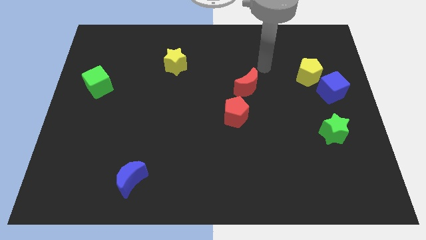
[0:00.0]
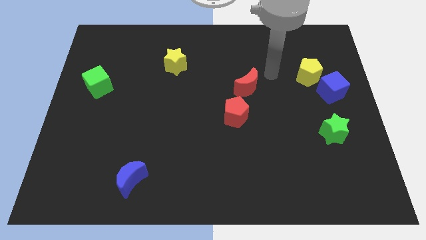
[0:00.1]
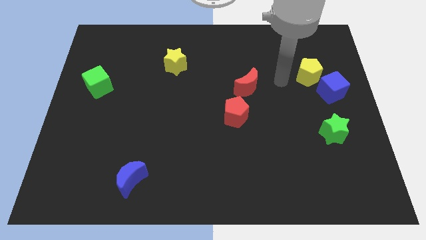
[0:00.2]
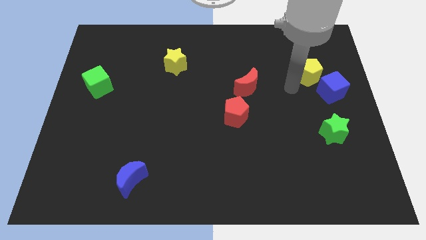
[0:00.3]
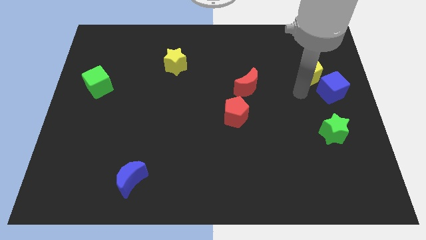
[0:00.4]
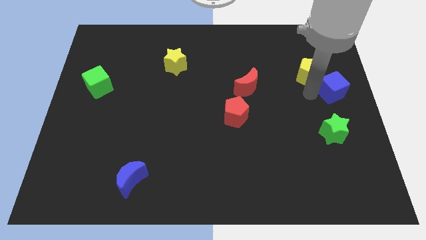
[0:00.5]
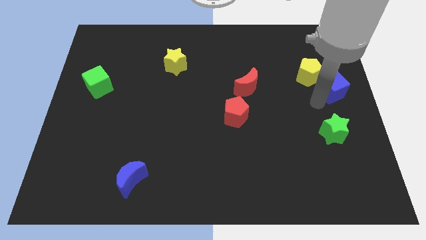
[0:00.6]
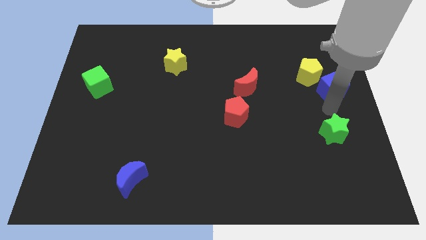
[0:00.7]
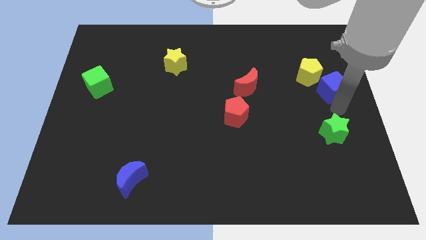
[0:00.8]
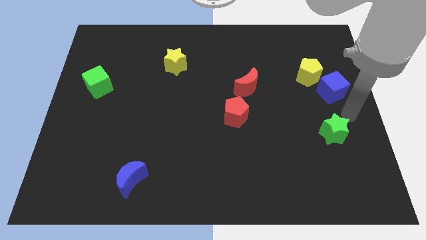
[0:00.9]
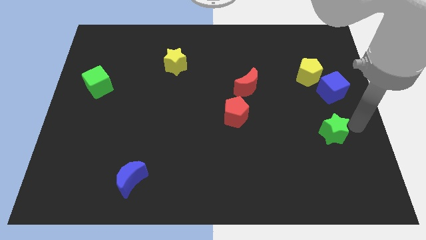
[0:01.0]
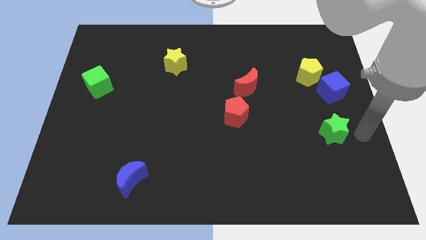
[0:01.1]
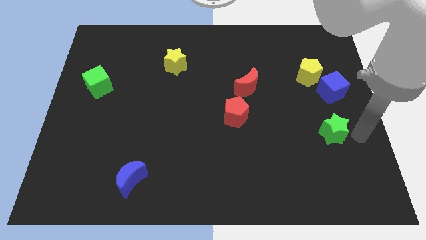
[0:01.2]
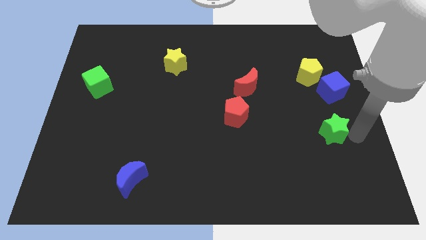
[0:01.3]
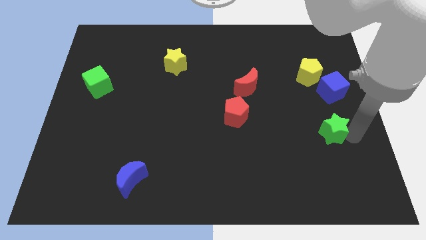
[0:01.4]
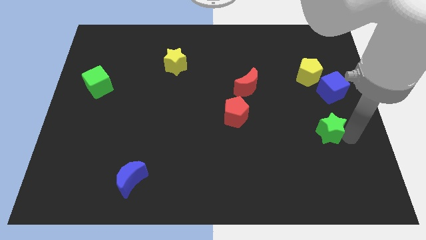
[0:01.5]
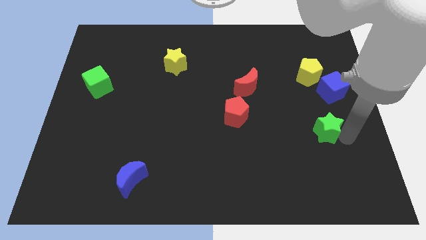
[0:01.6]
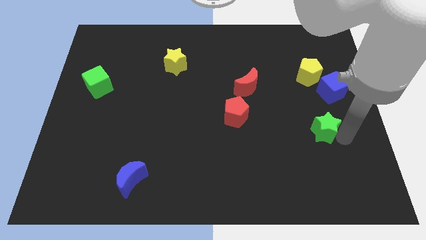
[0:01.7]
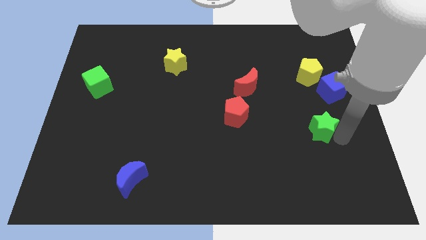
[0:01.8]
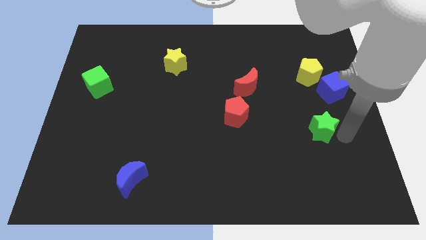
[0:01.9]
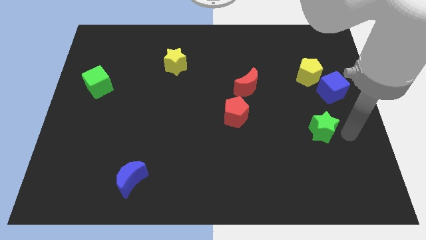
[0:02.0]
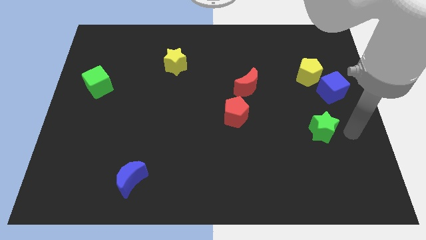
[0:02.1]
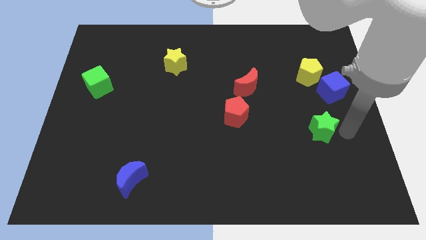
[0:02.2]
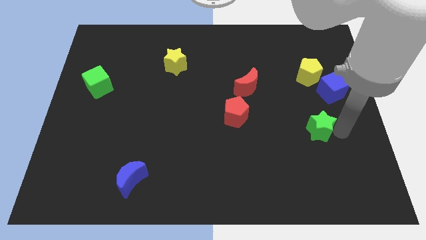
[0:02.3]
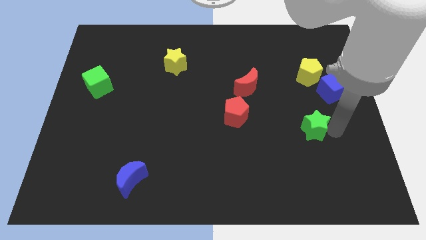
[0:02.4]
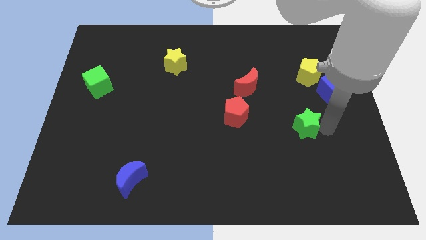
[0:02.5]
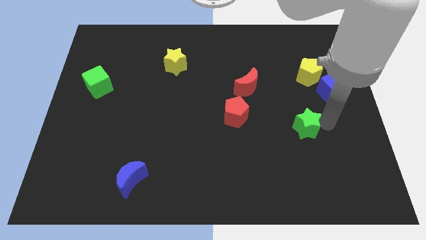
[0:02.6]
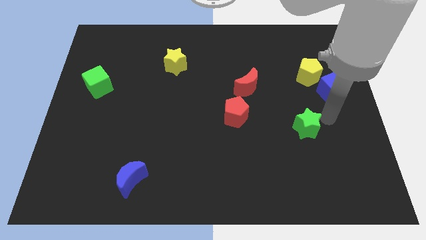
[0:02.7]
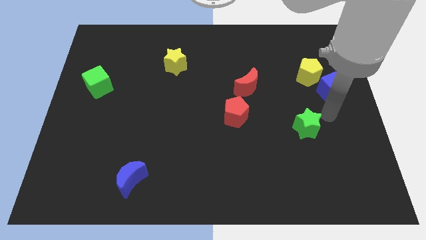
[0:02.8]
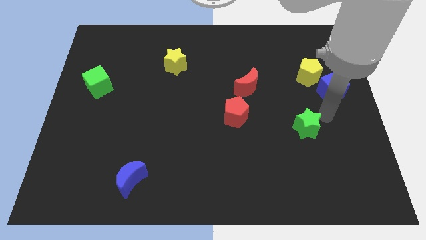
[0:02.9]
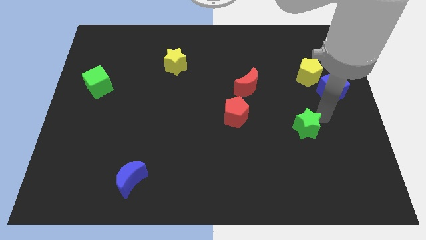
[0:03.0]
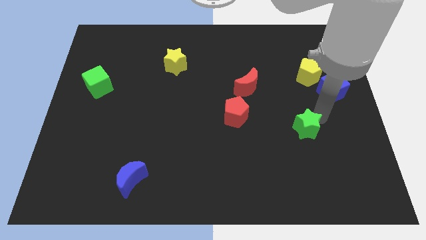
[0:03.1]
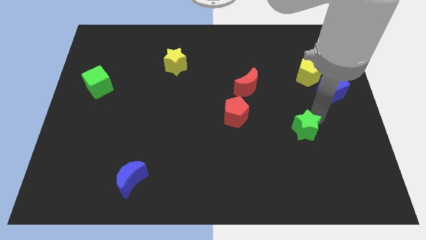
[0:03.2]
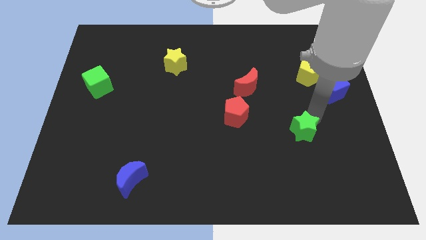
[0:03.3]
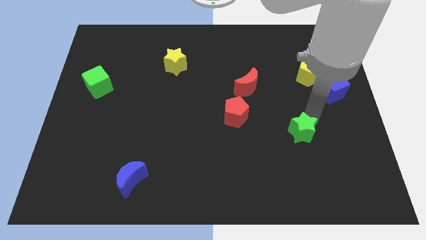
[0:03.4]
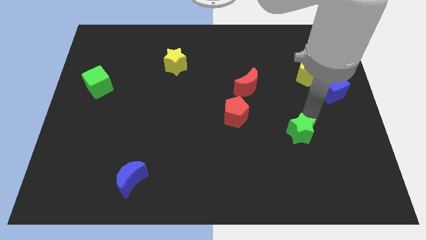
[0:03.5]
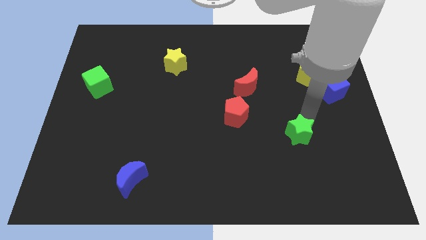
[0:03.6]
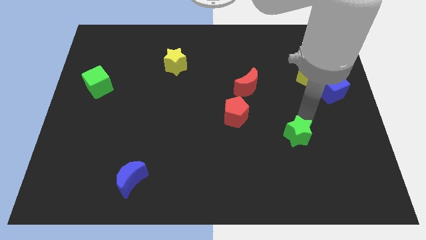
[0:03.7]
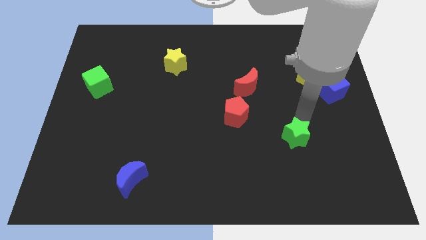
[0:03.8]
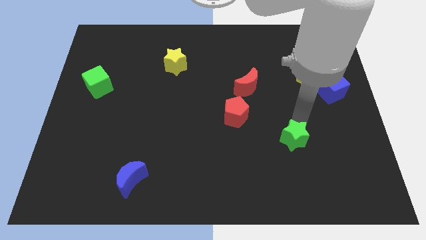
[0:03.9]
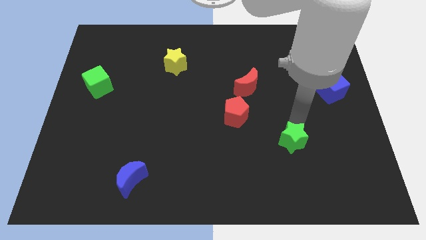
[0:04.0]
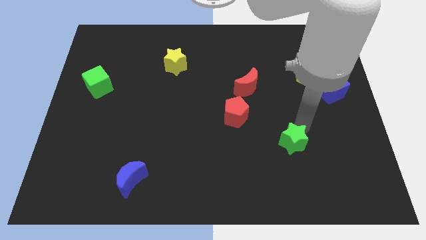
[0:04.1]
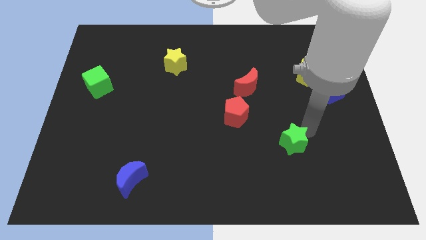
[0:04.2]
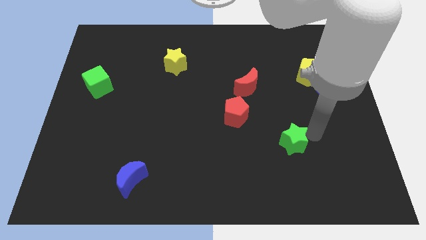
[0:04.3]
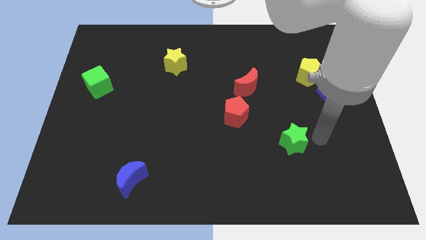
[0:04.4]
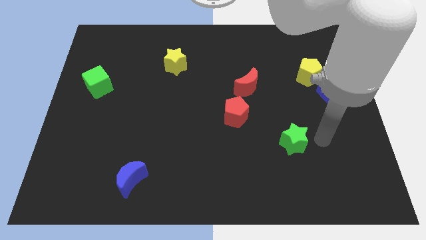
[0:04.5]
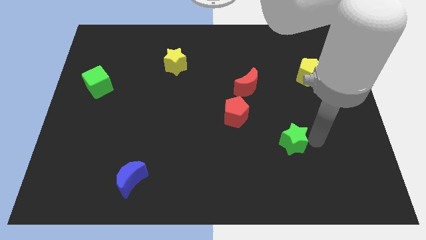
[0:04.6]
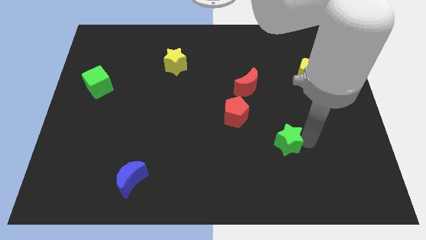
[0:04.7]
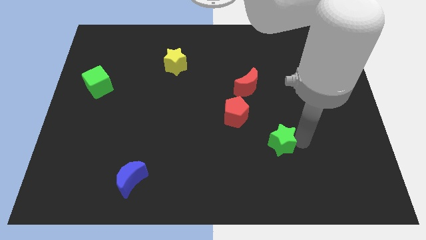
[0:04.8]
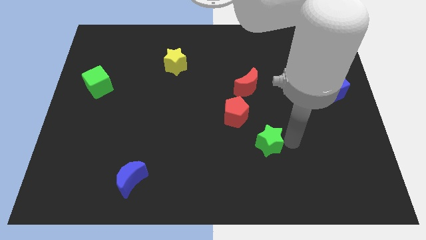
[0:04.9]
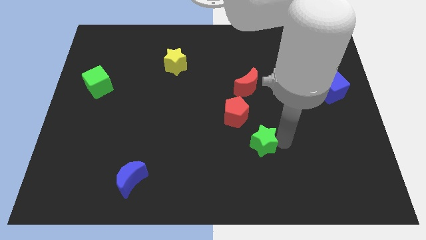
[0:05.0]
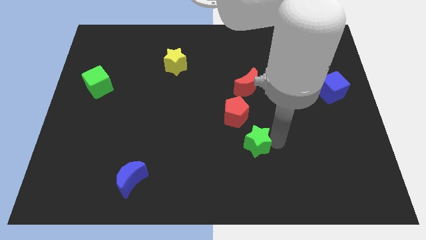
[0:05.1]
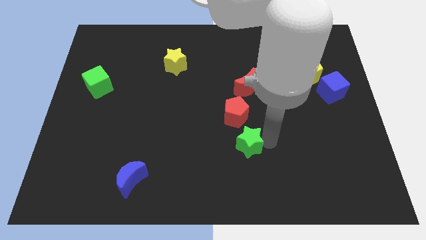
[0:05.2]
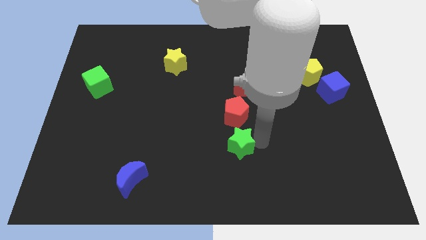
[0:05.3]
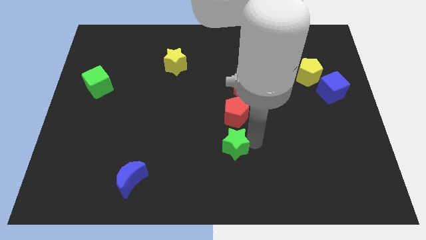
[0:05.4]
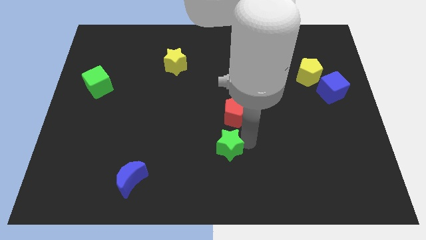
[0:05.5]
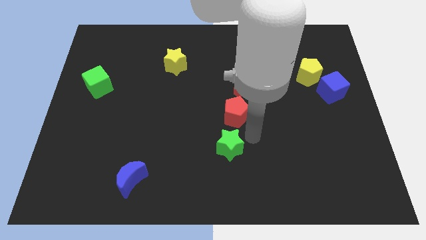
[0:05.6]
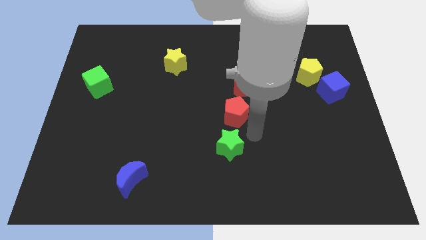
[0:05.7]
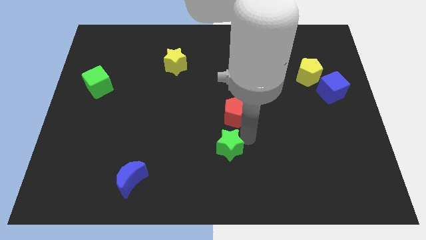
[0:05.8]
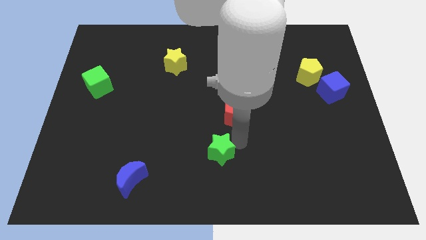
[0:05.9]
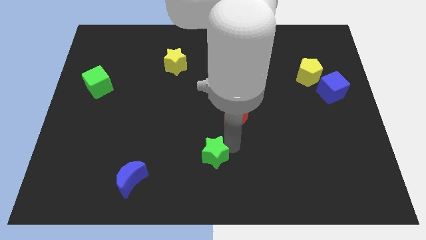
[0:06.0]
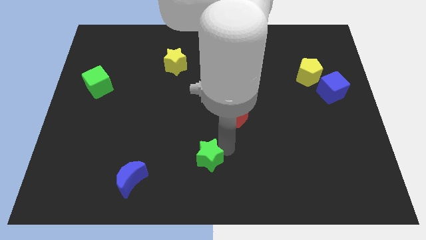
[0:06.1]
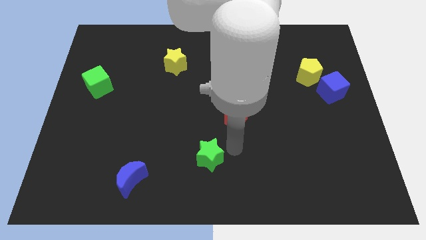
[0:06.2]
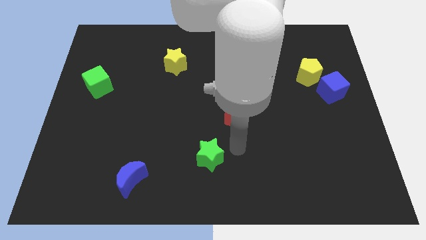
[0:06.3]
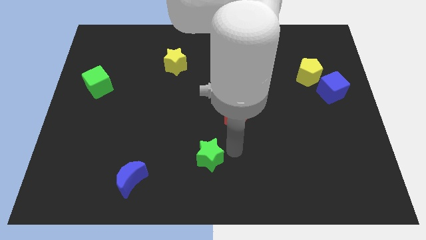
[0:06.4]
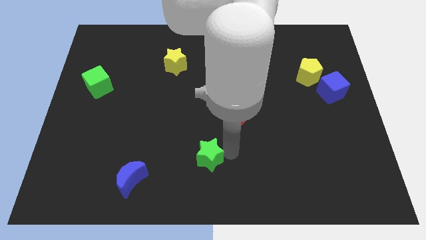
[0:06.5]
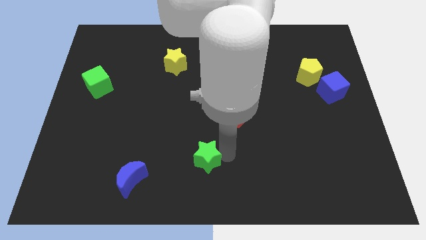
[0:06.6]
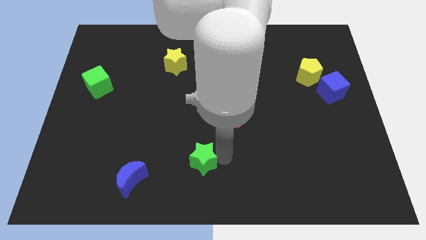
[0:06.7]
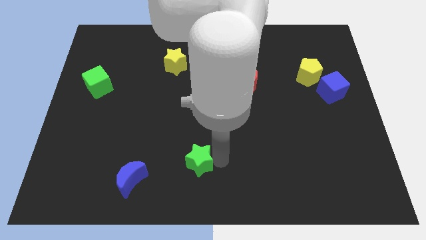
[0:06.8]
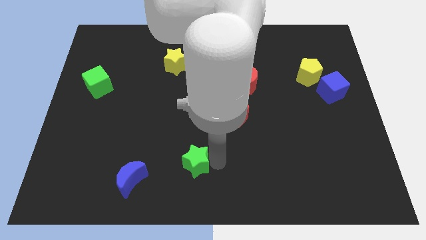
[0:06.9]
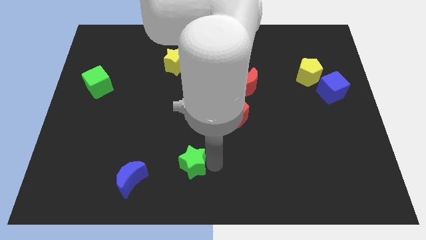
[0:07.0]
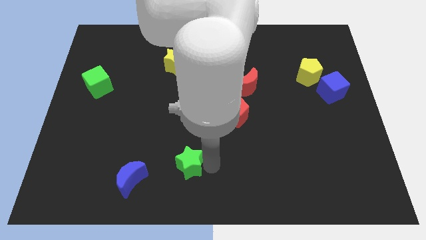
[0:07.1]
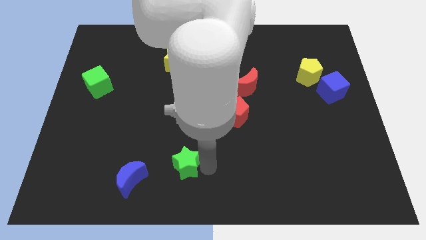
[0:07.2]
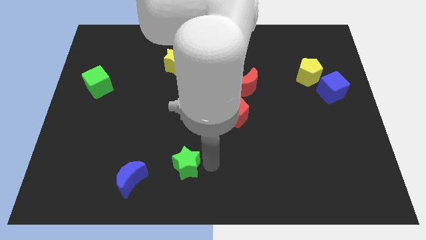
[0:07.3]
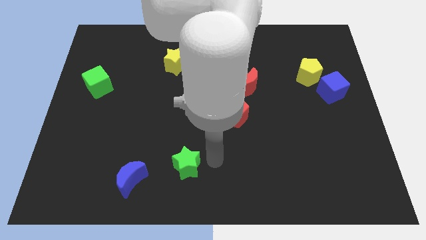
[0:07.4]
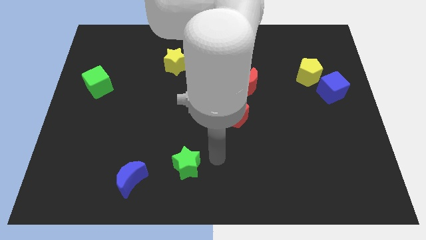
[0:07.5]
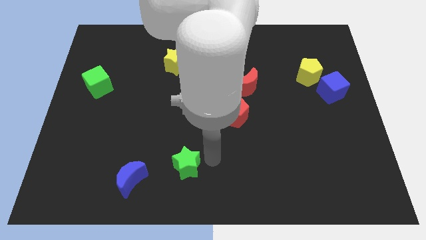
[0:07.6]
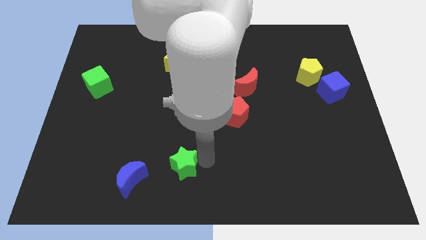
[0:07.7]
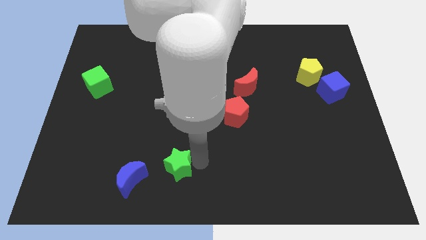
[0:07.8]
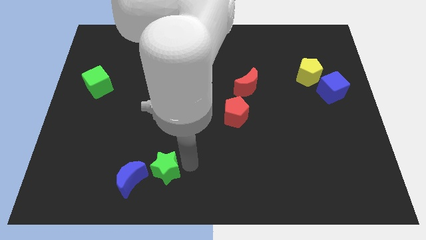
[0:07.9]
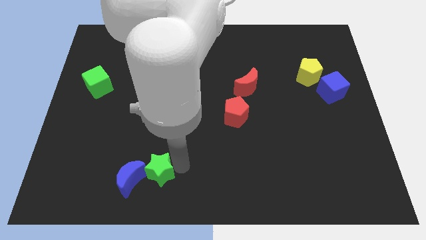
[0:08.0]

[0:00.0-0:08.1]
push the green star to the blue moon
